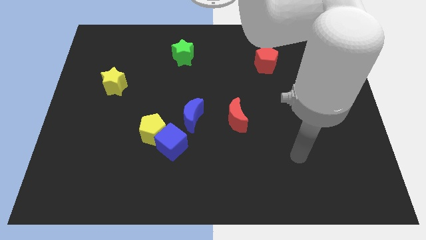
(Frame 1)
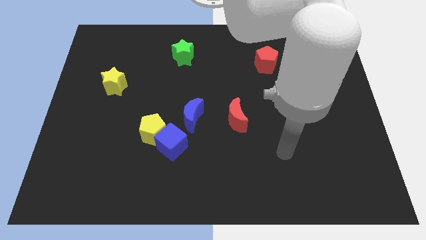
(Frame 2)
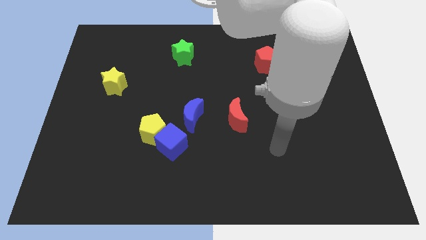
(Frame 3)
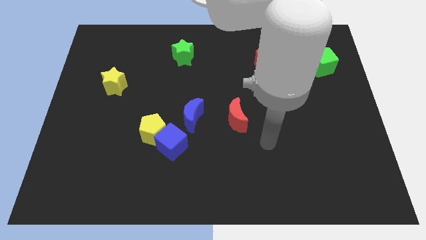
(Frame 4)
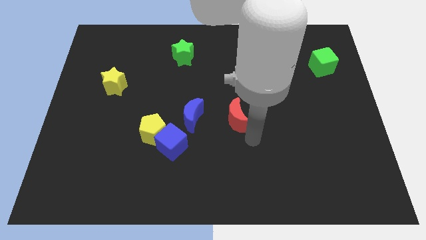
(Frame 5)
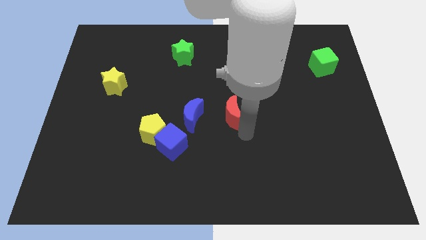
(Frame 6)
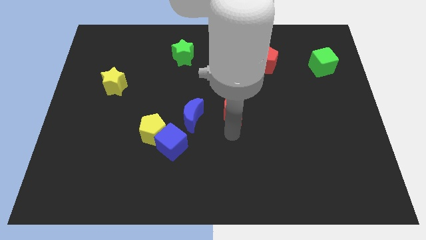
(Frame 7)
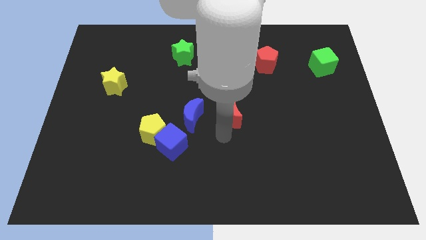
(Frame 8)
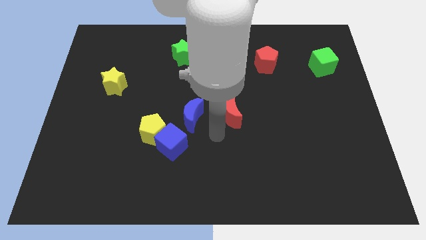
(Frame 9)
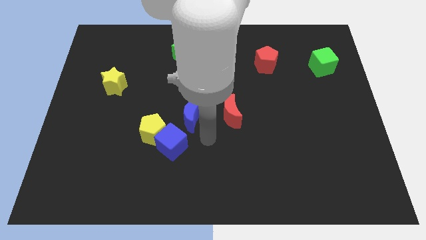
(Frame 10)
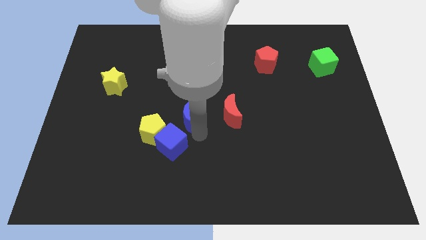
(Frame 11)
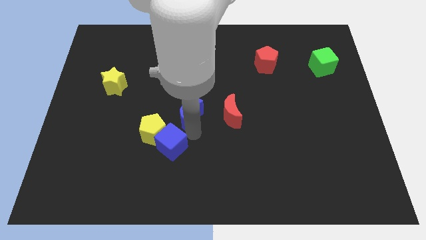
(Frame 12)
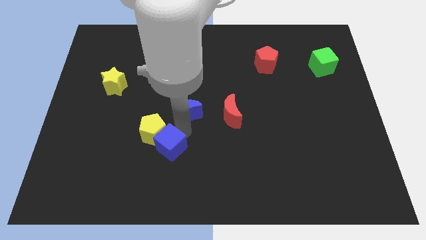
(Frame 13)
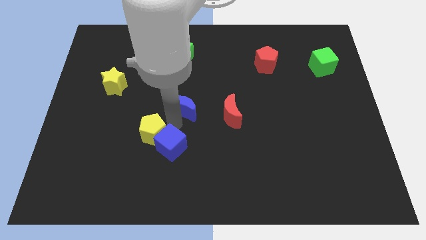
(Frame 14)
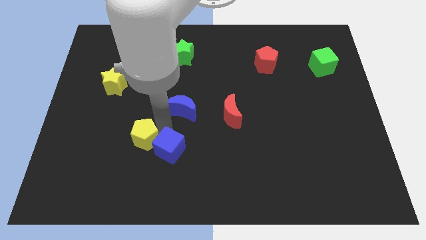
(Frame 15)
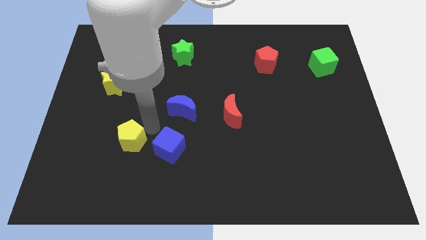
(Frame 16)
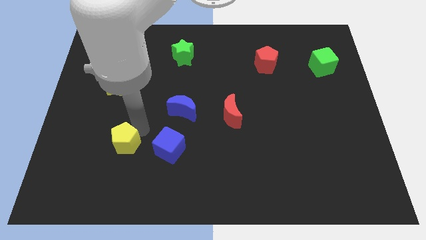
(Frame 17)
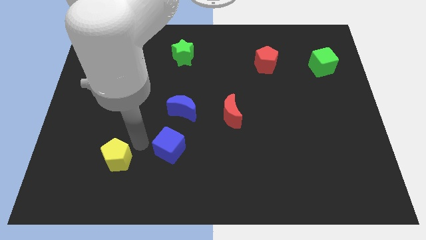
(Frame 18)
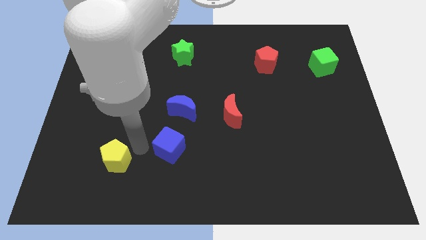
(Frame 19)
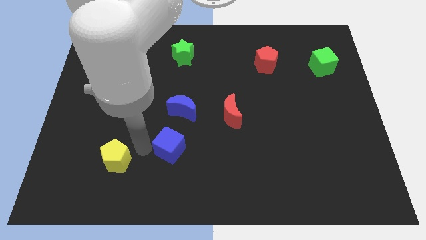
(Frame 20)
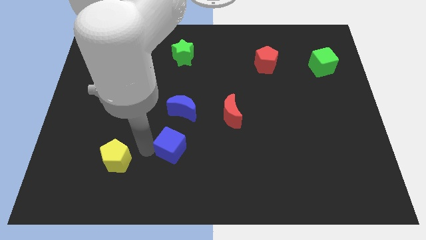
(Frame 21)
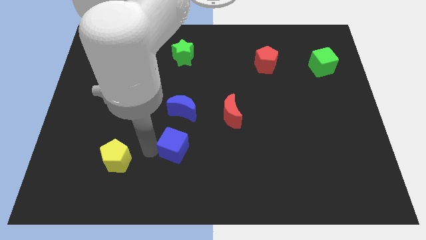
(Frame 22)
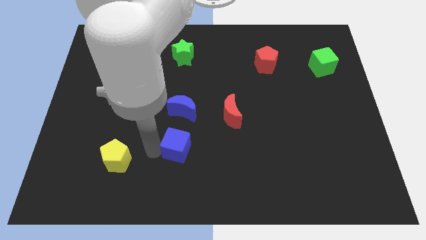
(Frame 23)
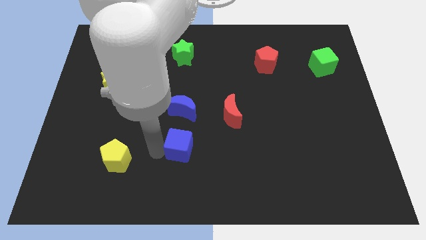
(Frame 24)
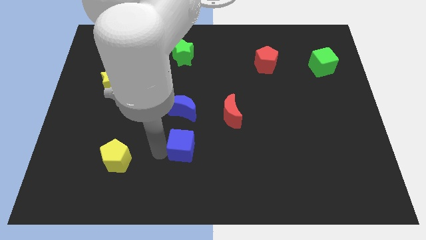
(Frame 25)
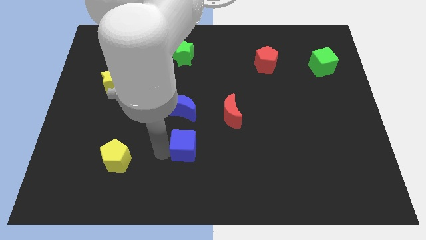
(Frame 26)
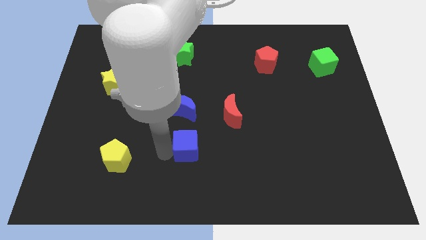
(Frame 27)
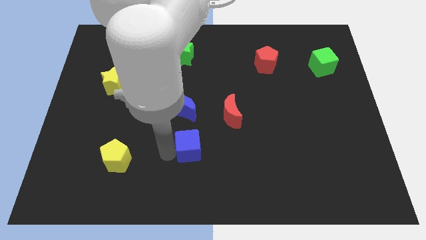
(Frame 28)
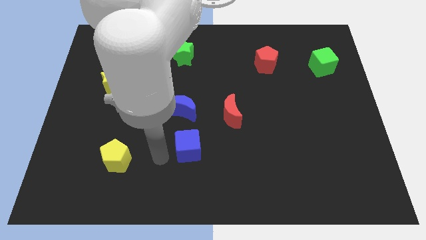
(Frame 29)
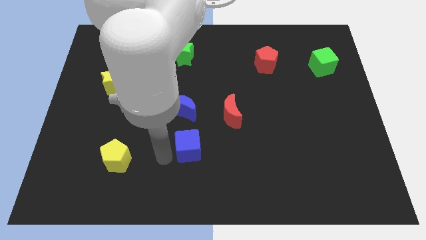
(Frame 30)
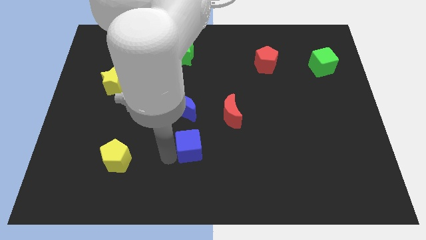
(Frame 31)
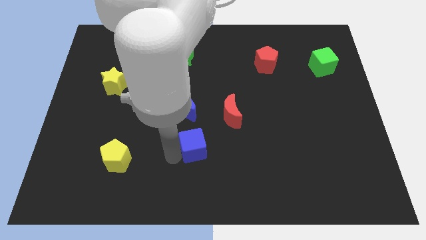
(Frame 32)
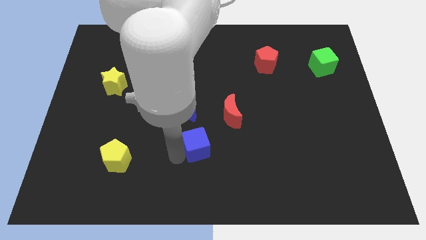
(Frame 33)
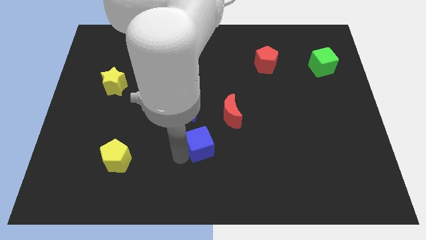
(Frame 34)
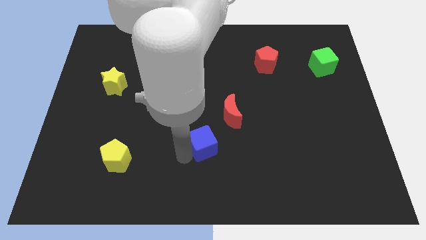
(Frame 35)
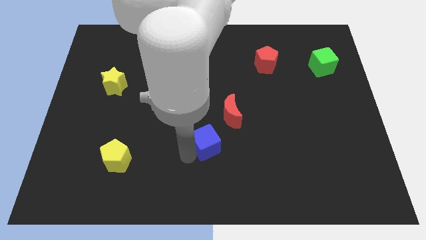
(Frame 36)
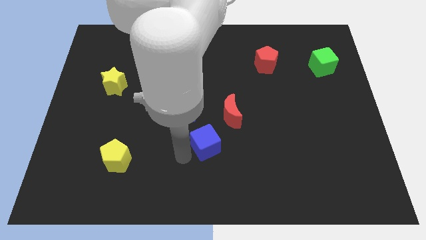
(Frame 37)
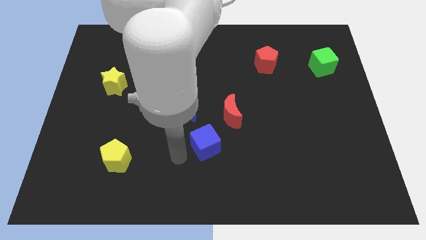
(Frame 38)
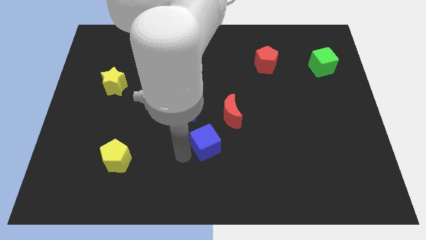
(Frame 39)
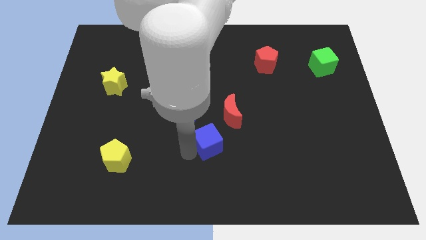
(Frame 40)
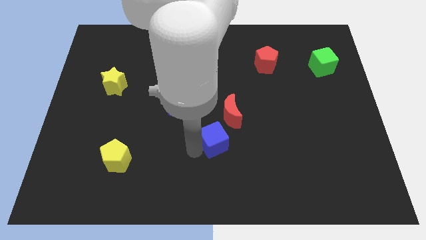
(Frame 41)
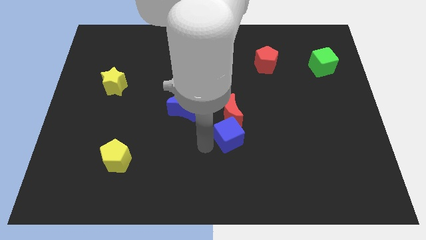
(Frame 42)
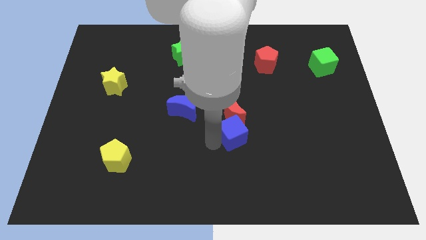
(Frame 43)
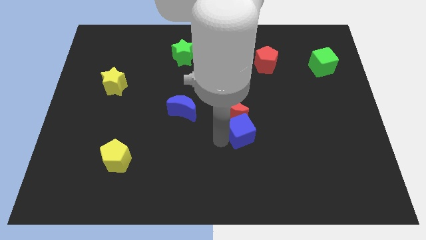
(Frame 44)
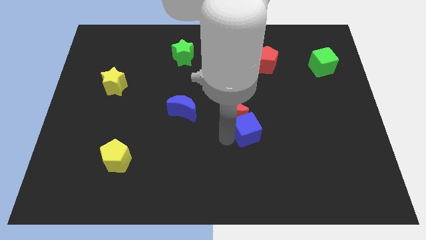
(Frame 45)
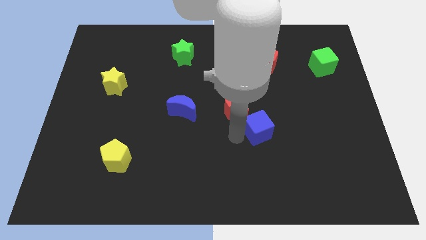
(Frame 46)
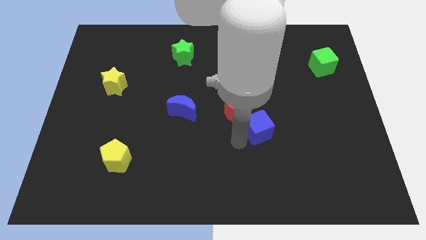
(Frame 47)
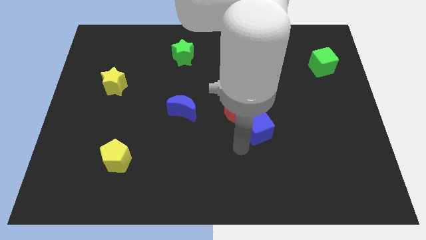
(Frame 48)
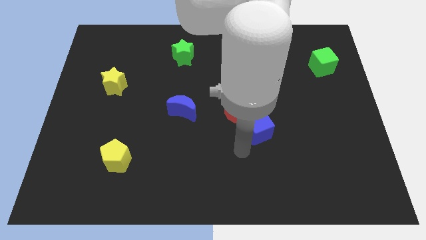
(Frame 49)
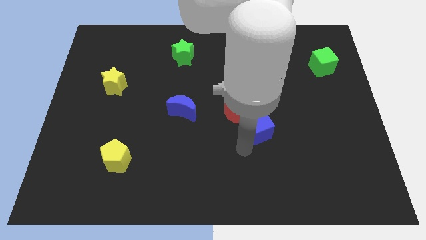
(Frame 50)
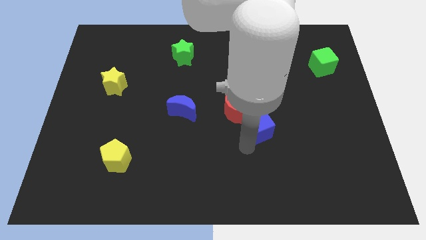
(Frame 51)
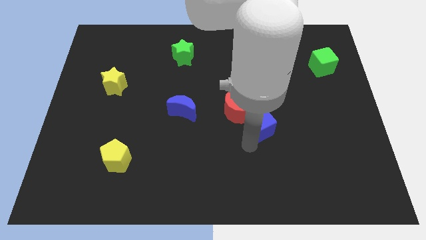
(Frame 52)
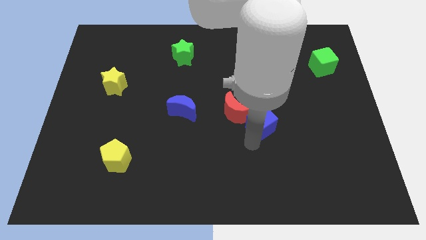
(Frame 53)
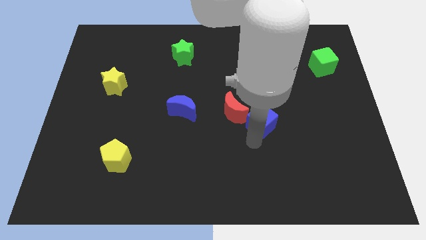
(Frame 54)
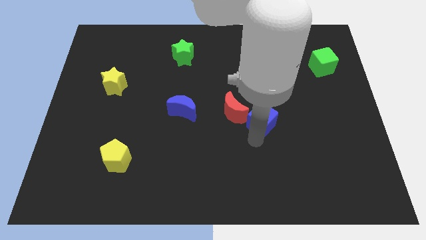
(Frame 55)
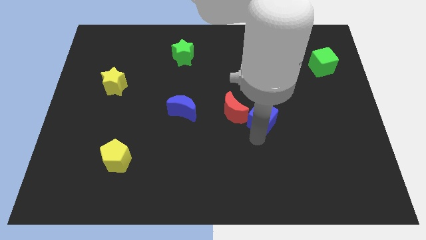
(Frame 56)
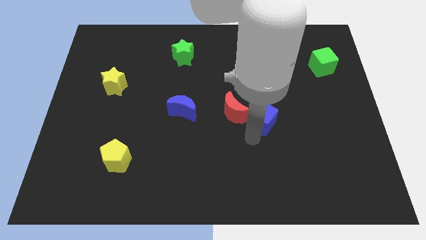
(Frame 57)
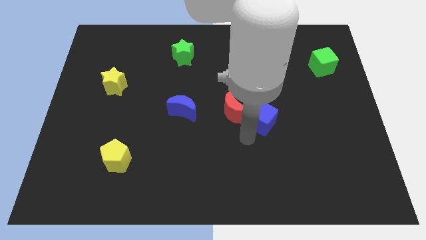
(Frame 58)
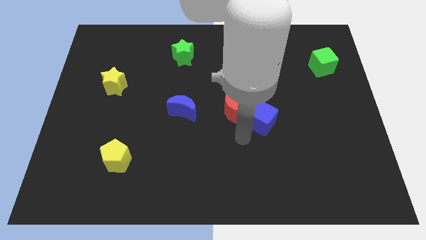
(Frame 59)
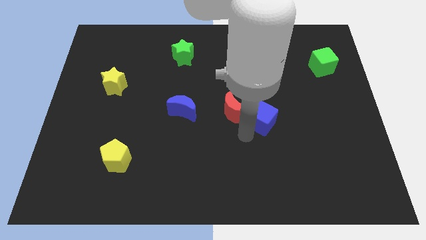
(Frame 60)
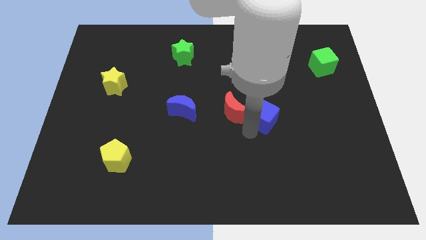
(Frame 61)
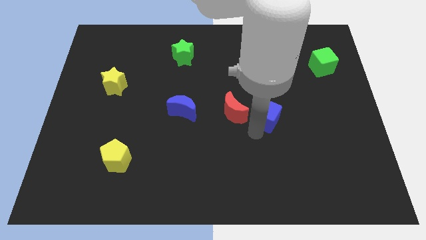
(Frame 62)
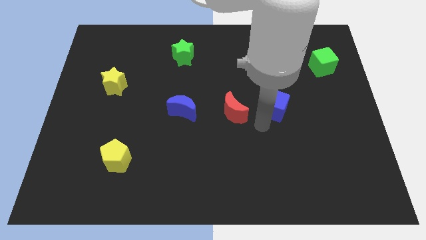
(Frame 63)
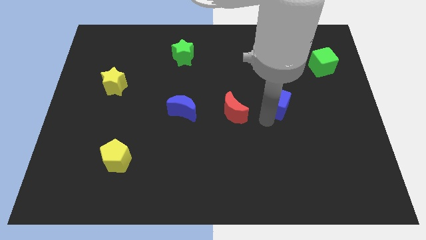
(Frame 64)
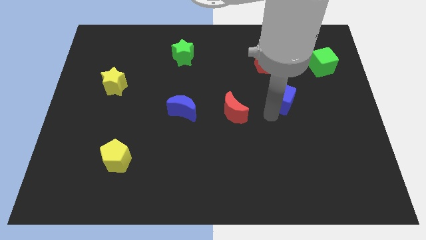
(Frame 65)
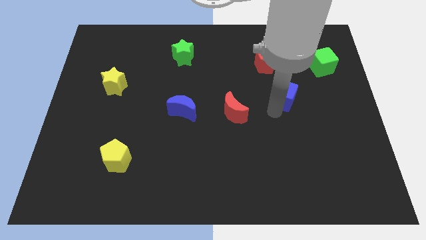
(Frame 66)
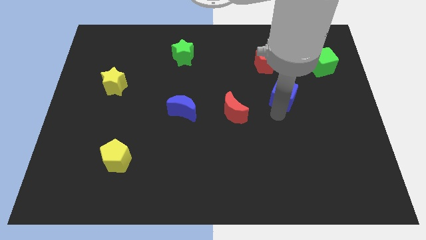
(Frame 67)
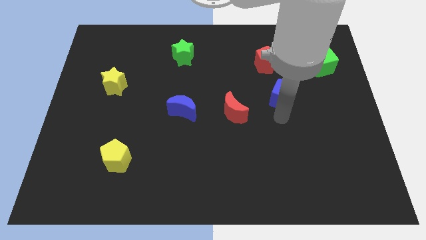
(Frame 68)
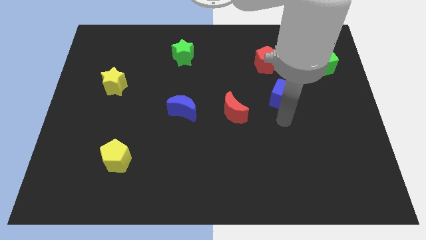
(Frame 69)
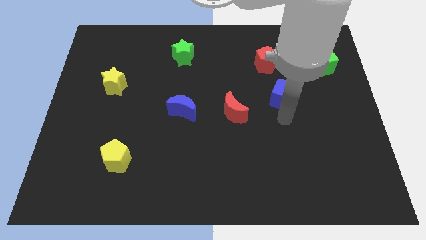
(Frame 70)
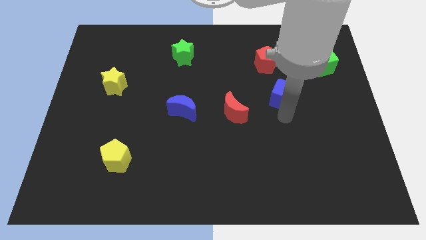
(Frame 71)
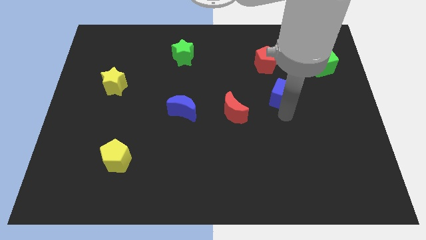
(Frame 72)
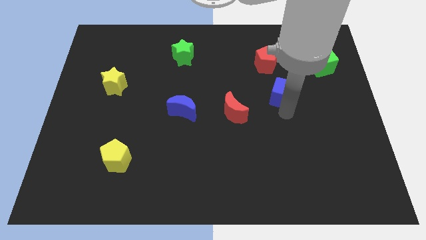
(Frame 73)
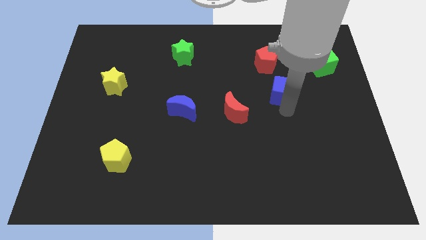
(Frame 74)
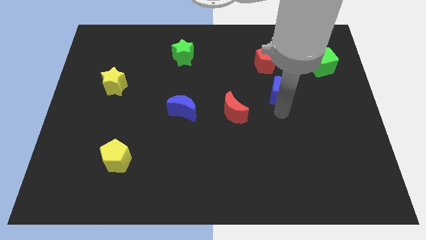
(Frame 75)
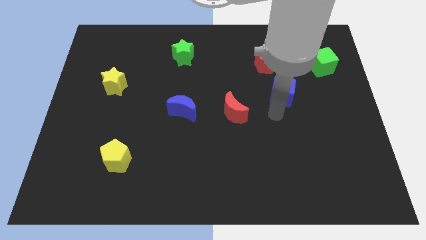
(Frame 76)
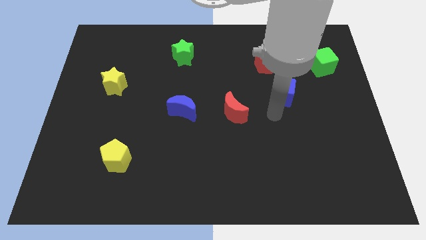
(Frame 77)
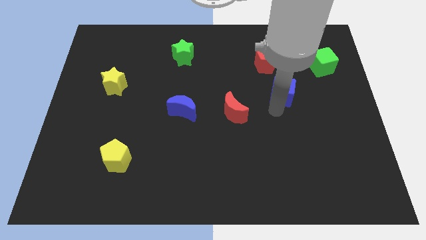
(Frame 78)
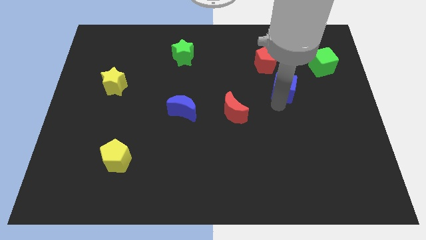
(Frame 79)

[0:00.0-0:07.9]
put the blue cube diagonally down and to the right of the red pentagon

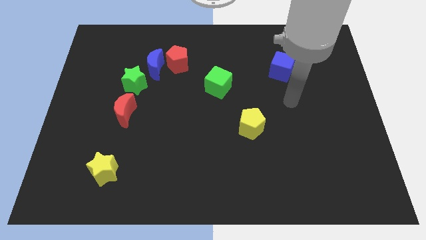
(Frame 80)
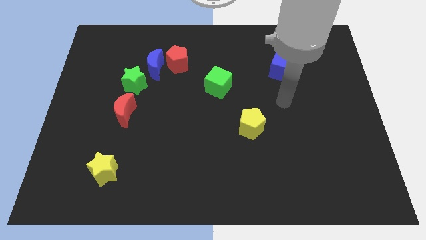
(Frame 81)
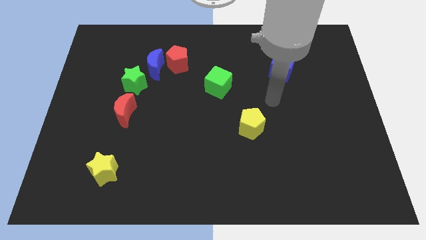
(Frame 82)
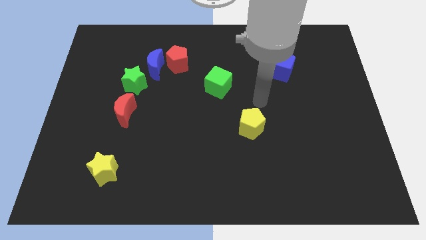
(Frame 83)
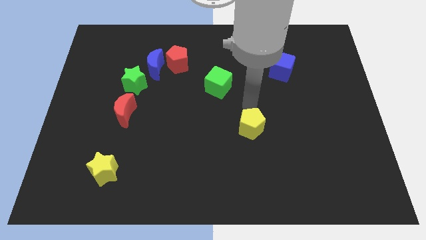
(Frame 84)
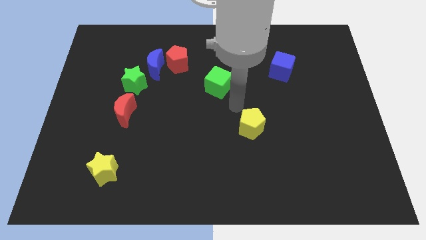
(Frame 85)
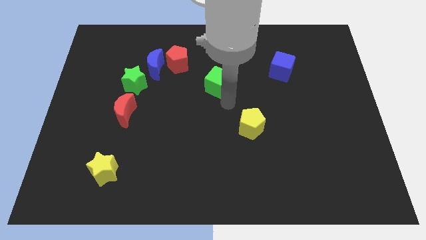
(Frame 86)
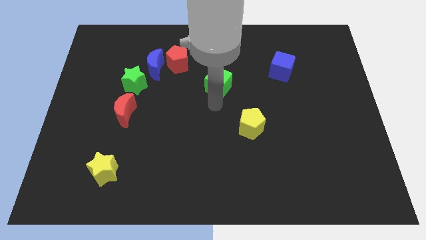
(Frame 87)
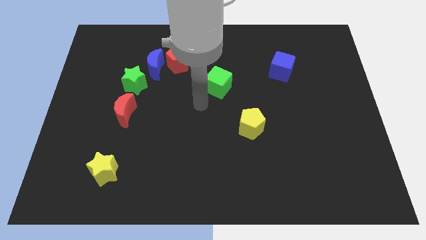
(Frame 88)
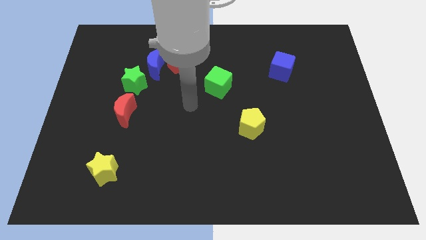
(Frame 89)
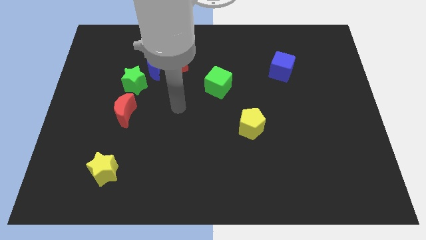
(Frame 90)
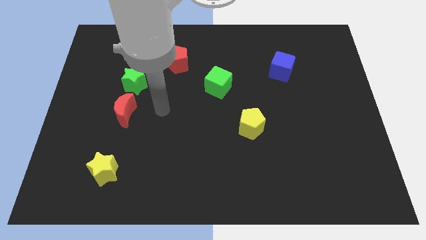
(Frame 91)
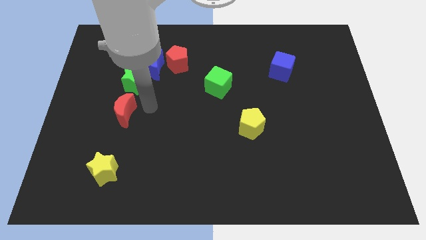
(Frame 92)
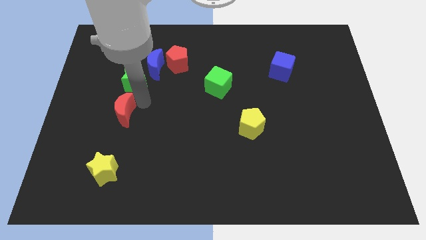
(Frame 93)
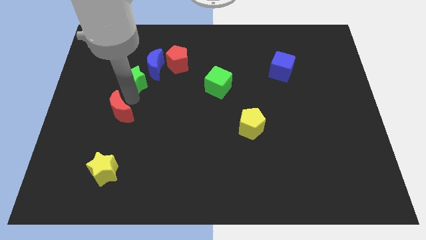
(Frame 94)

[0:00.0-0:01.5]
put the green star to the top right side of the red moon
